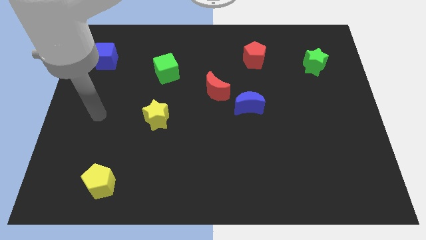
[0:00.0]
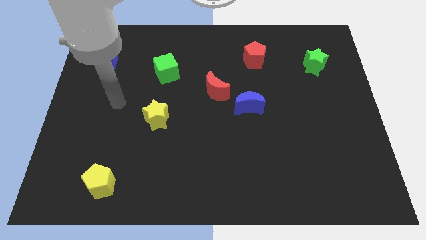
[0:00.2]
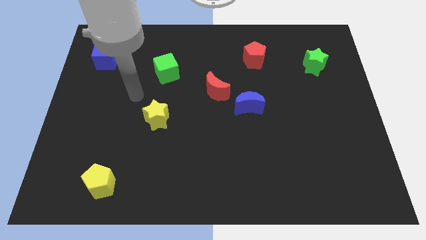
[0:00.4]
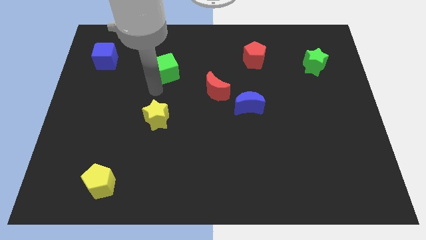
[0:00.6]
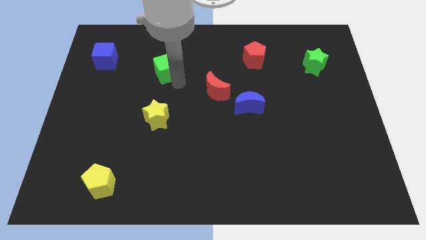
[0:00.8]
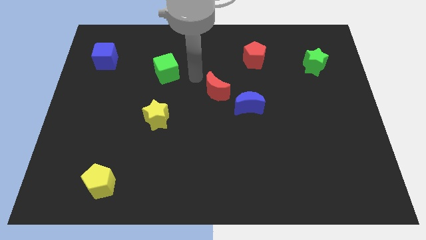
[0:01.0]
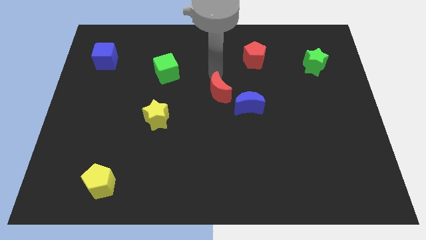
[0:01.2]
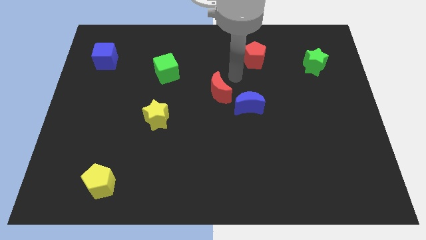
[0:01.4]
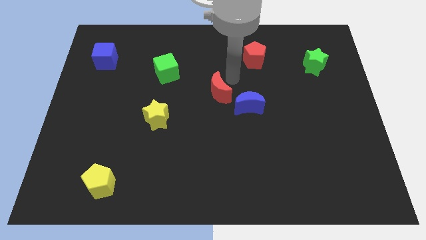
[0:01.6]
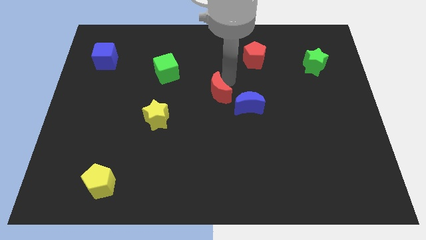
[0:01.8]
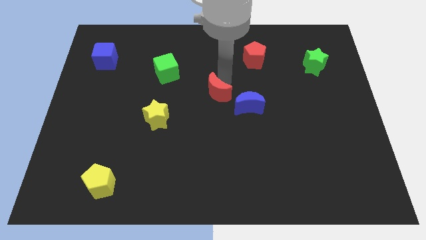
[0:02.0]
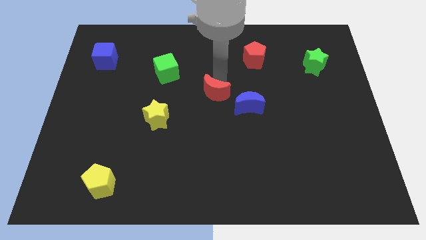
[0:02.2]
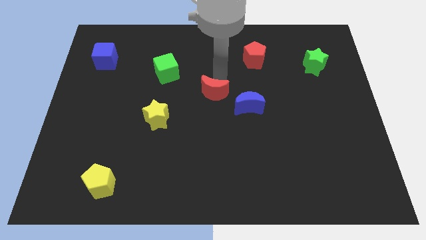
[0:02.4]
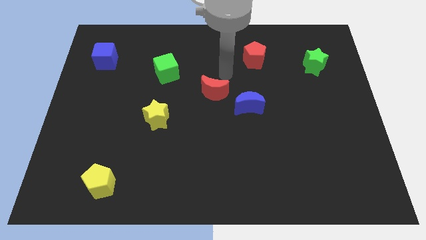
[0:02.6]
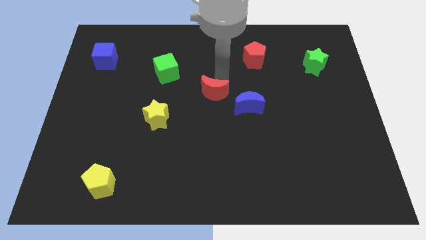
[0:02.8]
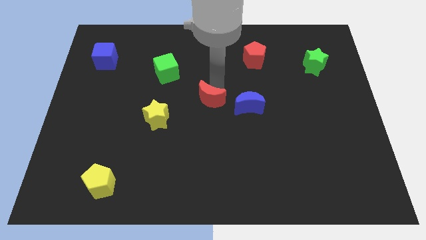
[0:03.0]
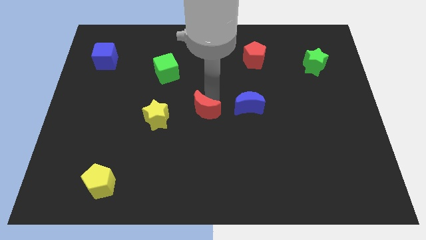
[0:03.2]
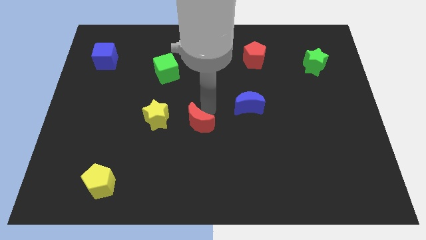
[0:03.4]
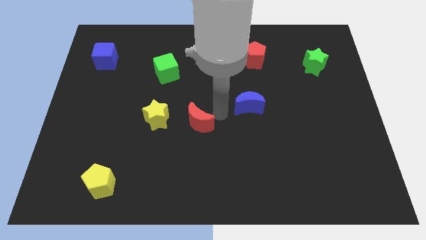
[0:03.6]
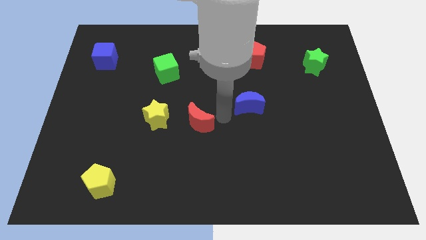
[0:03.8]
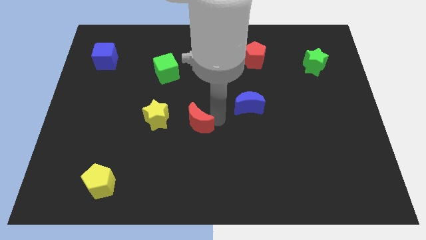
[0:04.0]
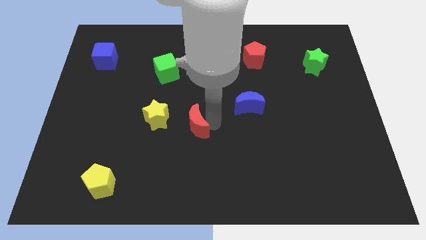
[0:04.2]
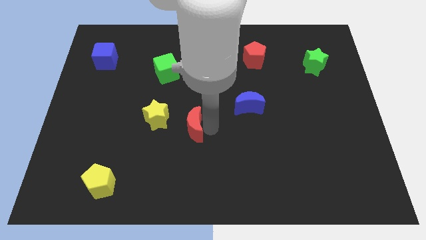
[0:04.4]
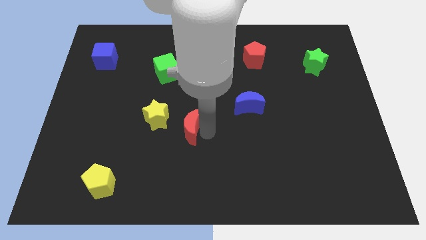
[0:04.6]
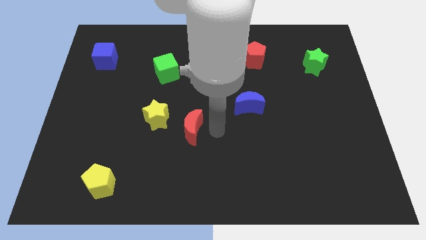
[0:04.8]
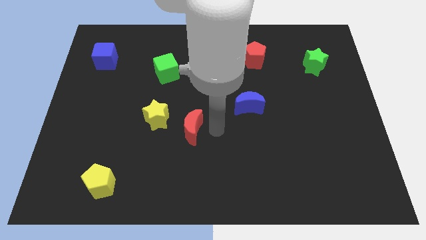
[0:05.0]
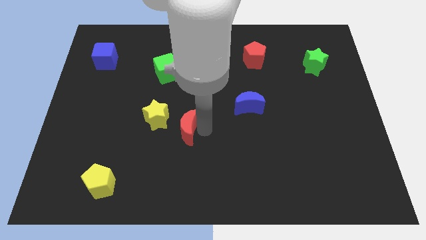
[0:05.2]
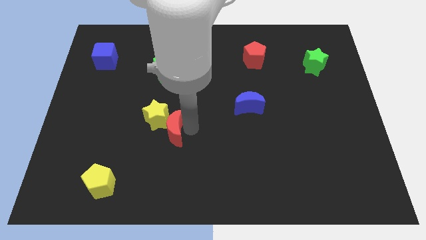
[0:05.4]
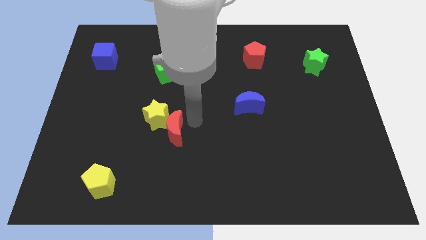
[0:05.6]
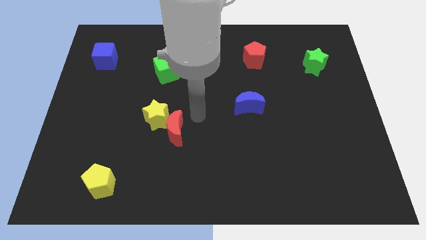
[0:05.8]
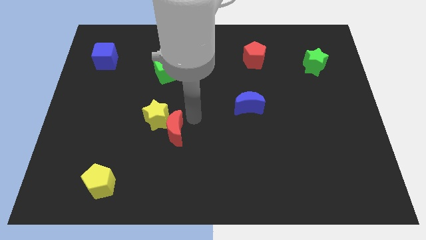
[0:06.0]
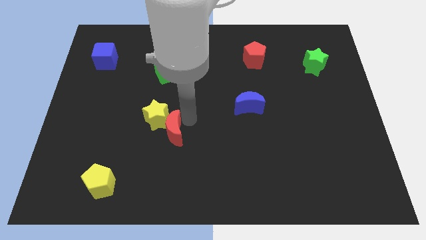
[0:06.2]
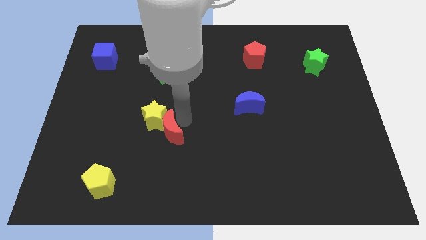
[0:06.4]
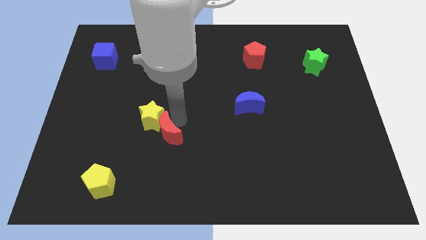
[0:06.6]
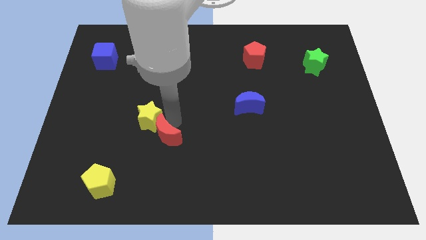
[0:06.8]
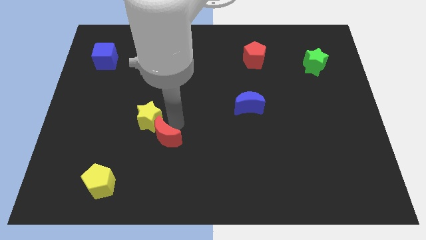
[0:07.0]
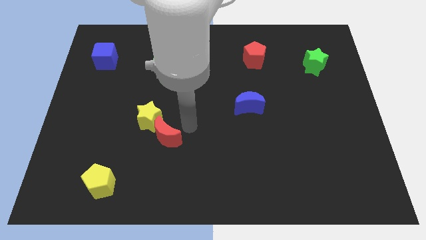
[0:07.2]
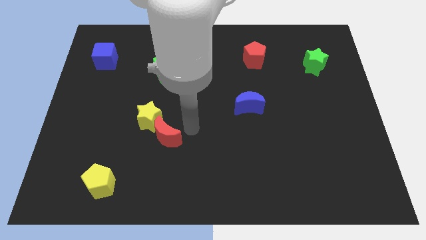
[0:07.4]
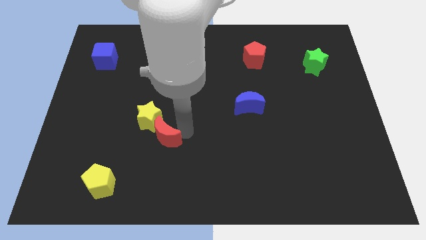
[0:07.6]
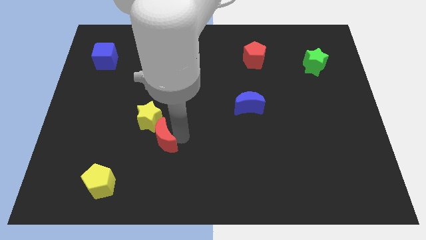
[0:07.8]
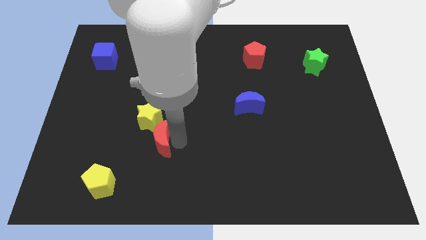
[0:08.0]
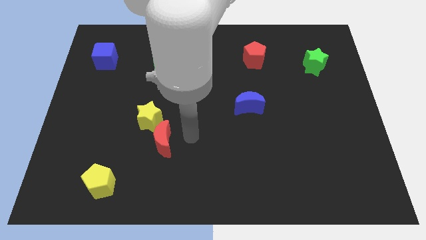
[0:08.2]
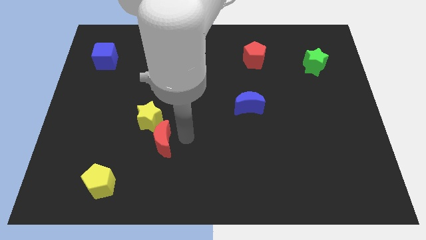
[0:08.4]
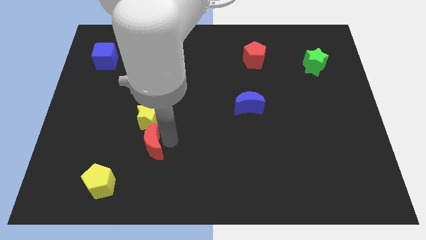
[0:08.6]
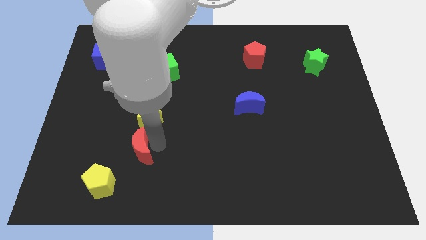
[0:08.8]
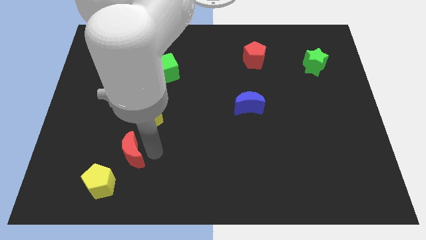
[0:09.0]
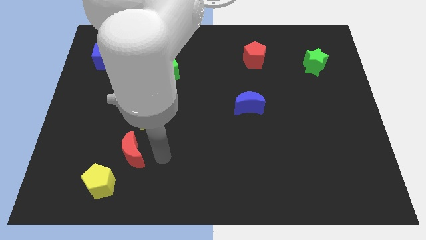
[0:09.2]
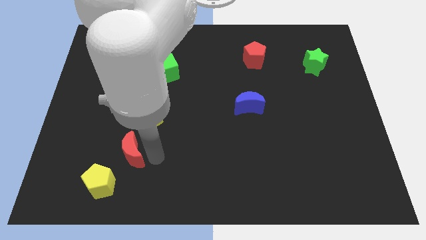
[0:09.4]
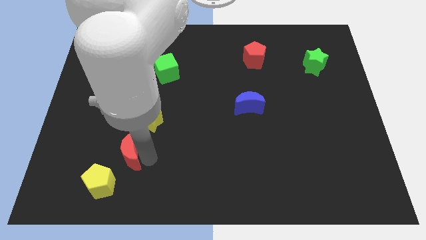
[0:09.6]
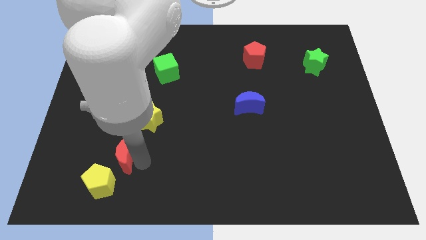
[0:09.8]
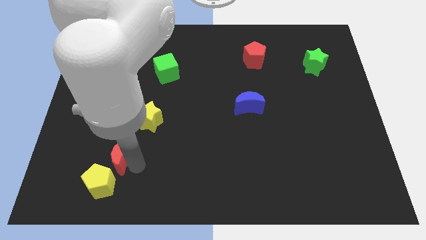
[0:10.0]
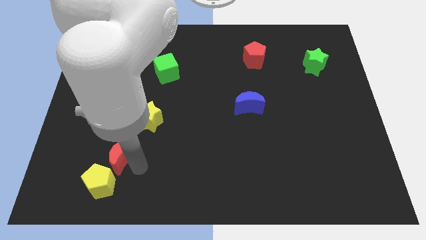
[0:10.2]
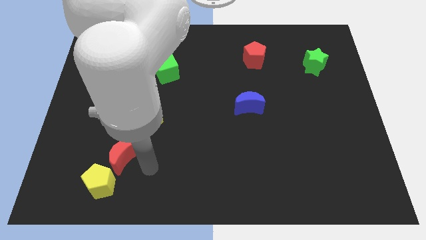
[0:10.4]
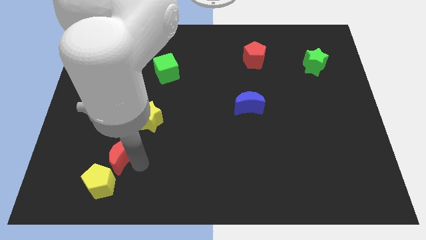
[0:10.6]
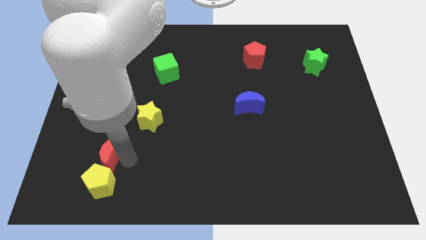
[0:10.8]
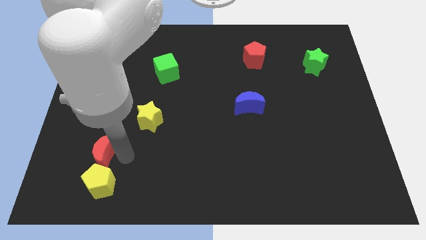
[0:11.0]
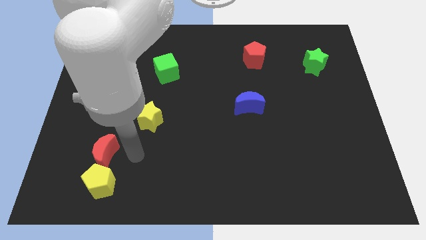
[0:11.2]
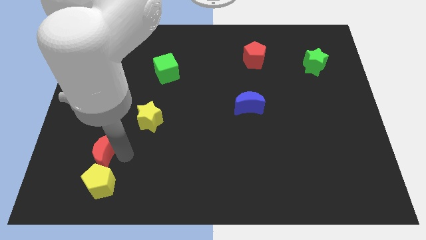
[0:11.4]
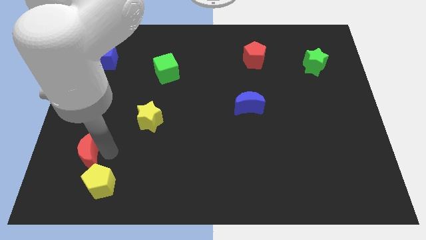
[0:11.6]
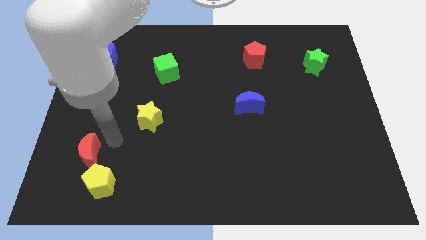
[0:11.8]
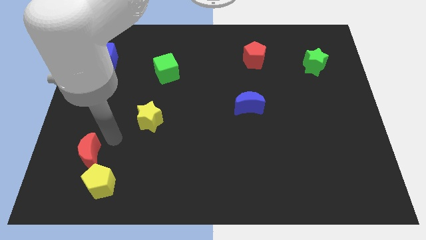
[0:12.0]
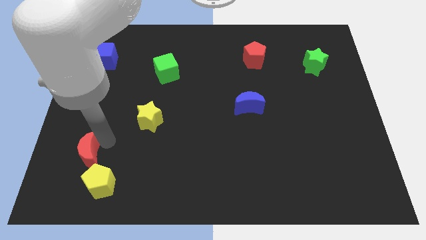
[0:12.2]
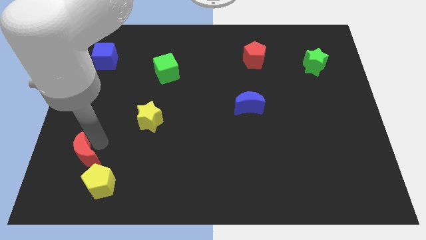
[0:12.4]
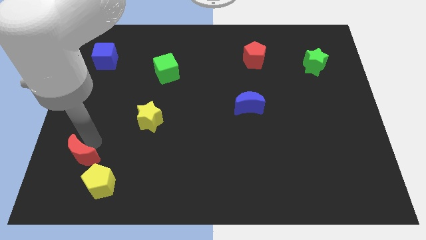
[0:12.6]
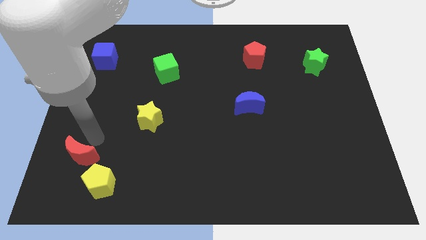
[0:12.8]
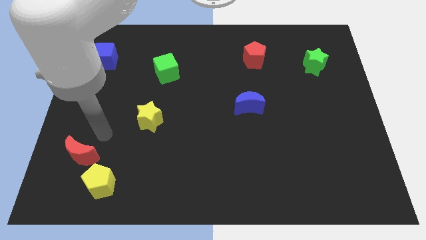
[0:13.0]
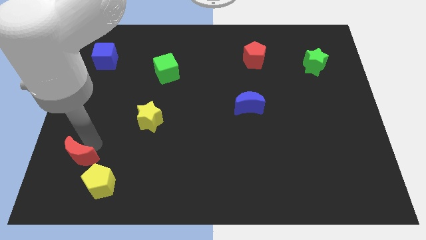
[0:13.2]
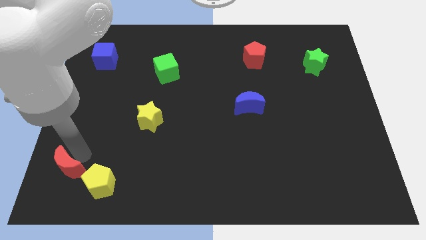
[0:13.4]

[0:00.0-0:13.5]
slide the red moon to the bottom left
